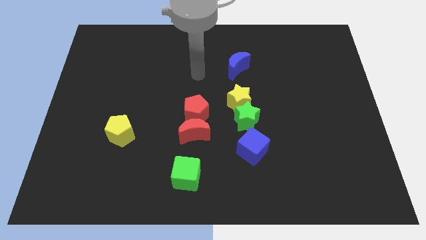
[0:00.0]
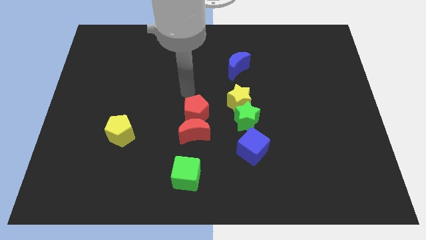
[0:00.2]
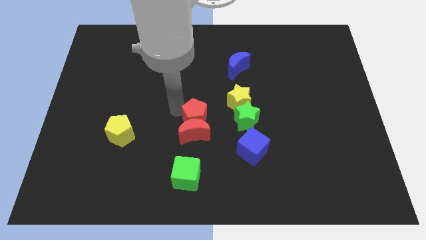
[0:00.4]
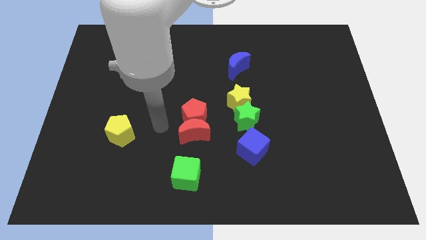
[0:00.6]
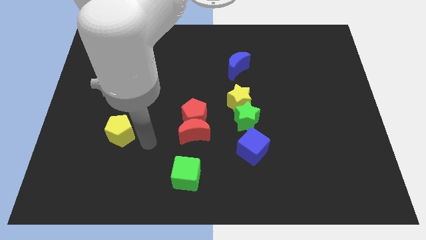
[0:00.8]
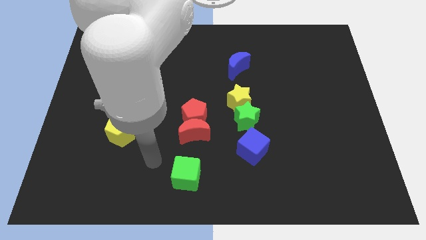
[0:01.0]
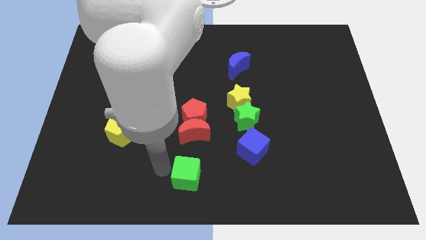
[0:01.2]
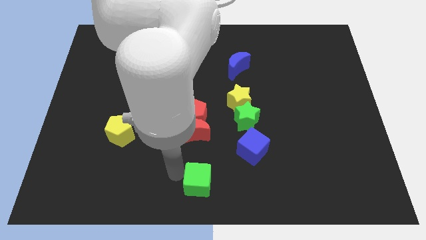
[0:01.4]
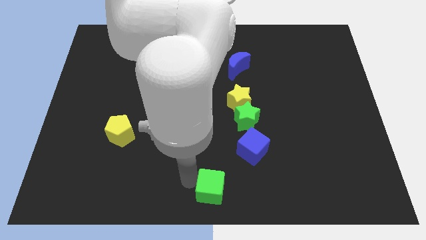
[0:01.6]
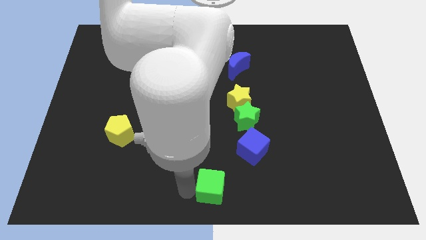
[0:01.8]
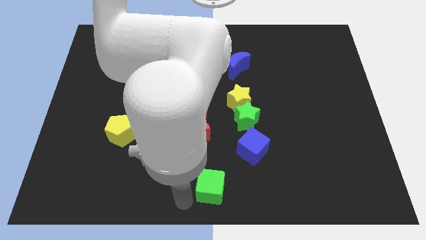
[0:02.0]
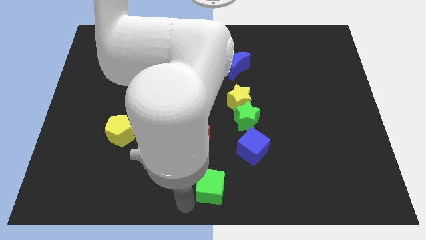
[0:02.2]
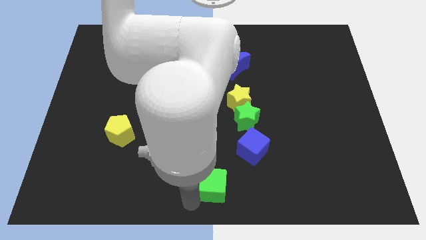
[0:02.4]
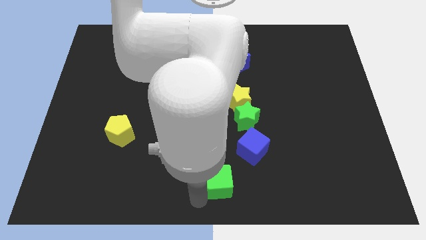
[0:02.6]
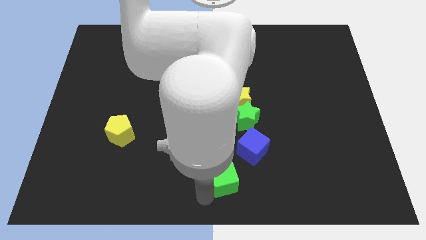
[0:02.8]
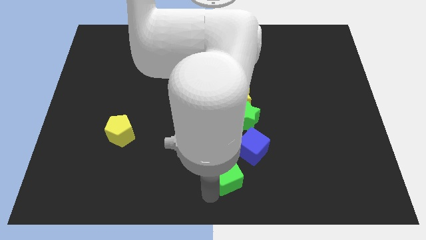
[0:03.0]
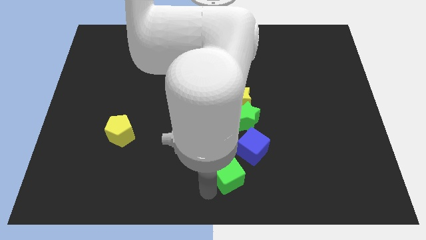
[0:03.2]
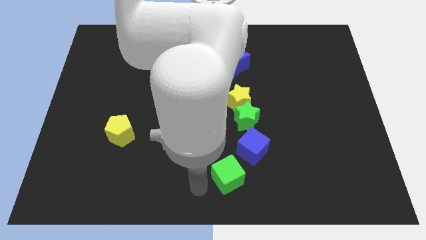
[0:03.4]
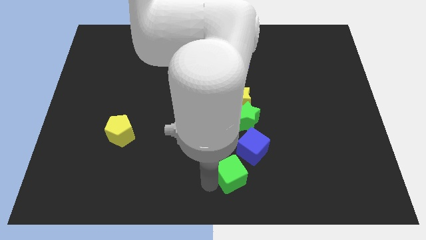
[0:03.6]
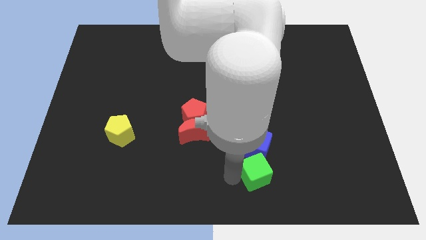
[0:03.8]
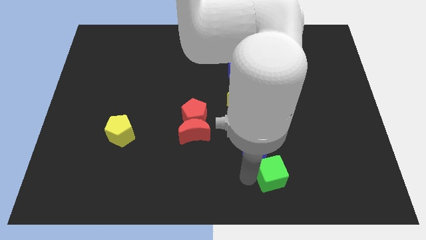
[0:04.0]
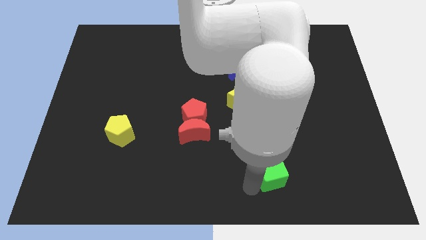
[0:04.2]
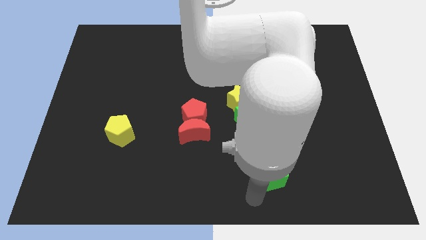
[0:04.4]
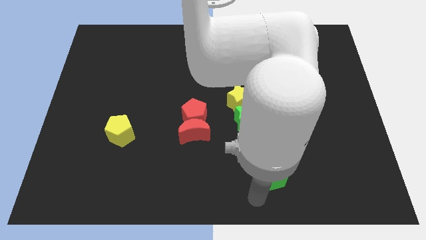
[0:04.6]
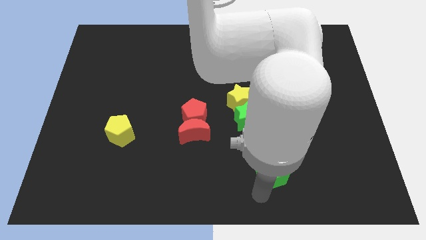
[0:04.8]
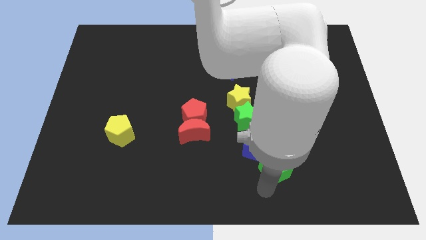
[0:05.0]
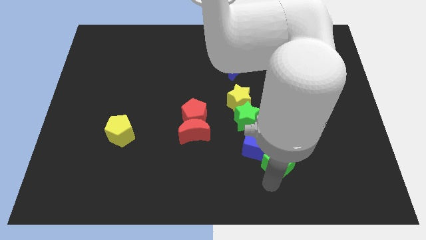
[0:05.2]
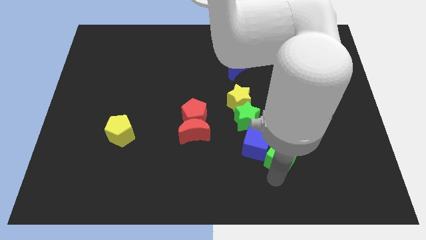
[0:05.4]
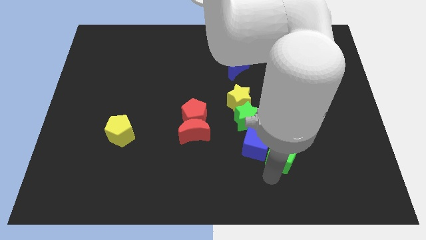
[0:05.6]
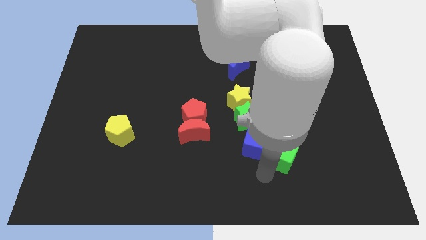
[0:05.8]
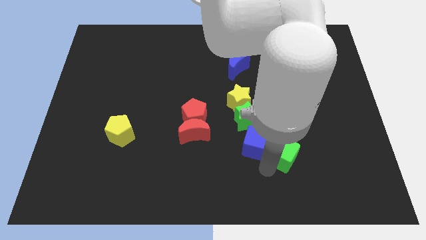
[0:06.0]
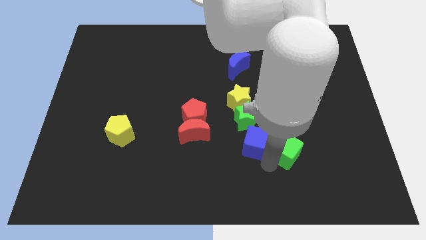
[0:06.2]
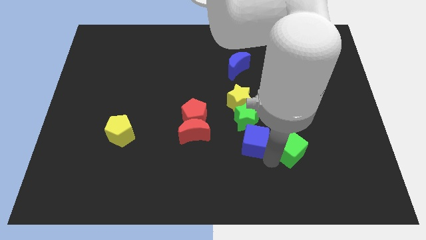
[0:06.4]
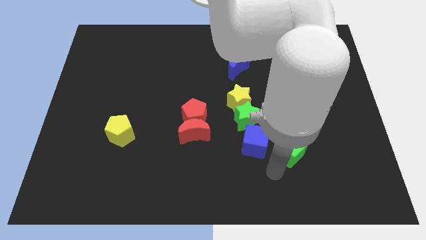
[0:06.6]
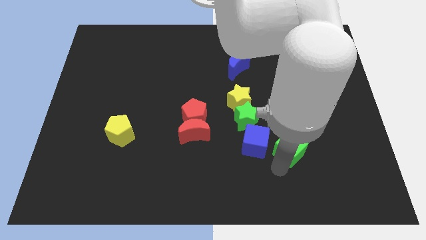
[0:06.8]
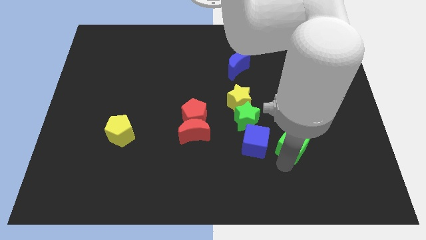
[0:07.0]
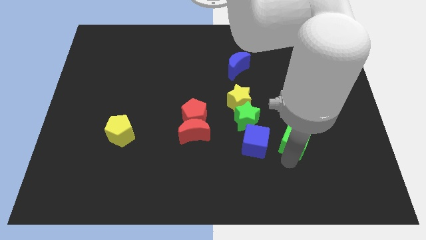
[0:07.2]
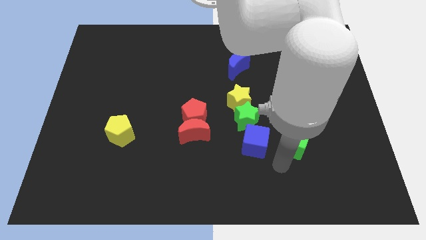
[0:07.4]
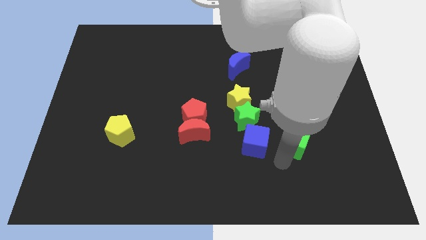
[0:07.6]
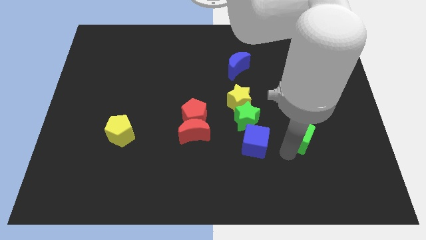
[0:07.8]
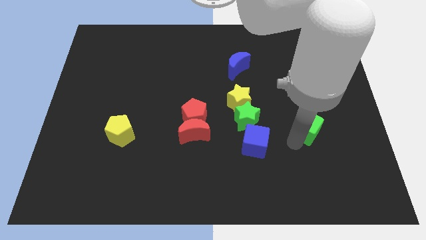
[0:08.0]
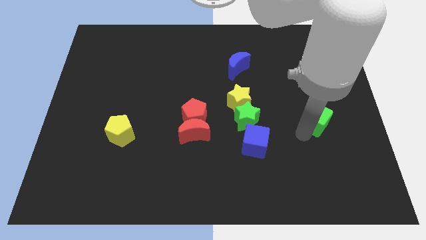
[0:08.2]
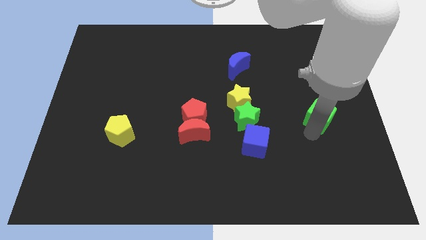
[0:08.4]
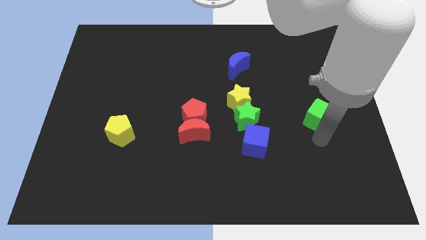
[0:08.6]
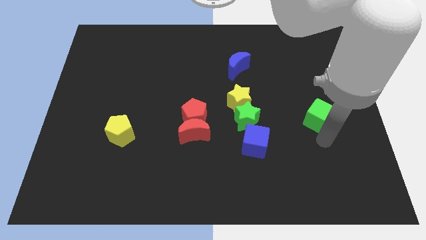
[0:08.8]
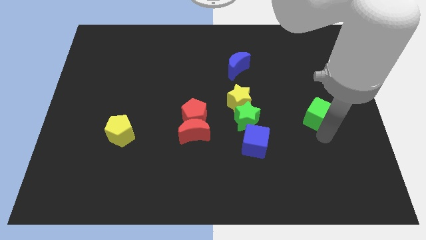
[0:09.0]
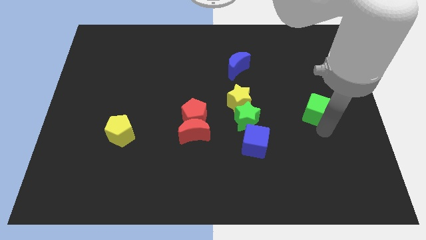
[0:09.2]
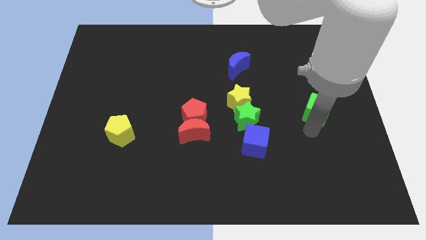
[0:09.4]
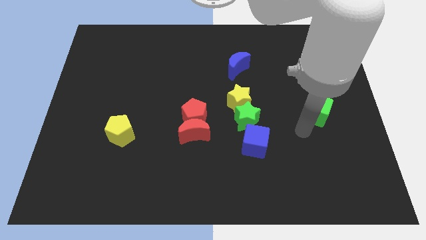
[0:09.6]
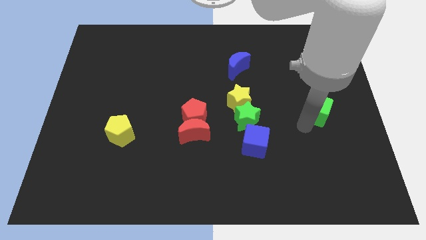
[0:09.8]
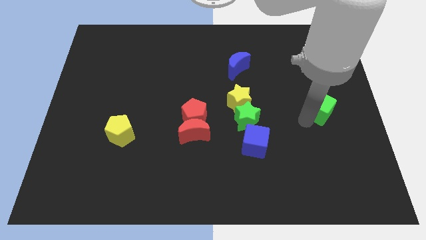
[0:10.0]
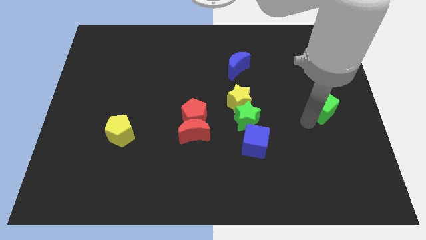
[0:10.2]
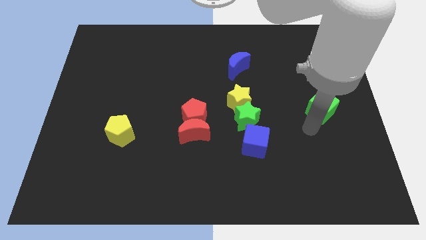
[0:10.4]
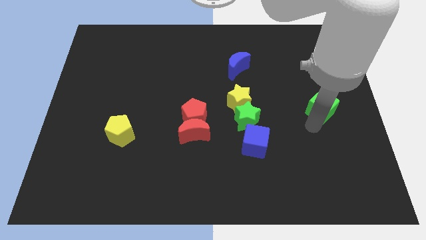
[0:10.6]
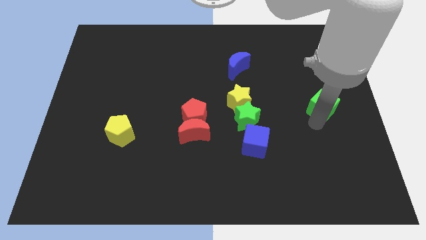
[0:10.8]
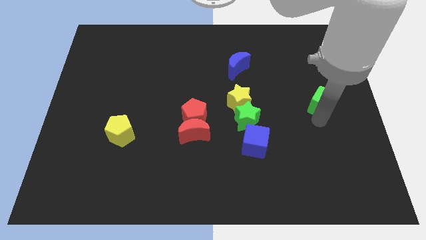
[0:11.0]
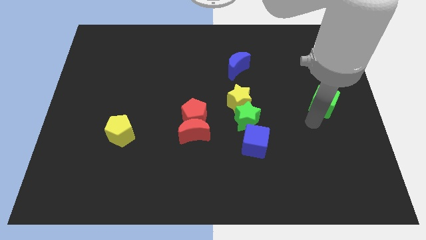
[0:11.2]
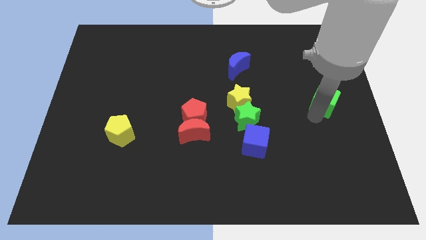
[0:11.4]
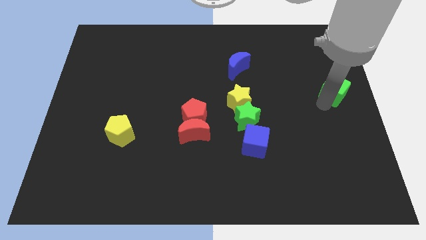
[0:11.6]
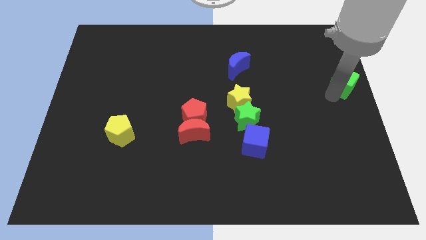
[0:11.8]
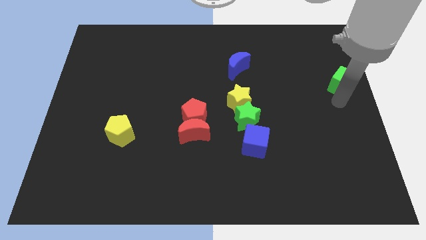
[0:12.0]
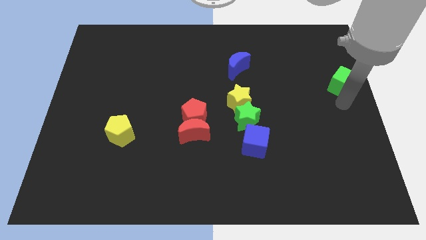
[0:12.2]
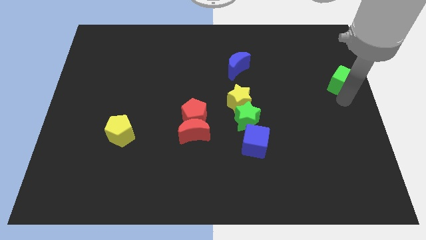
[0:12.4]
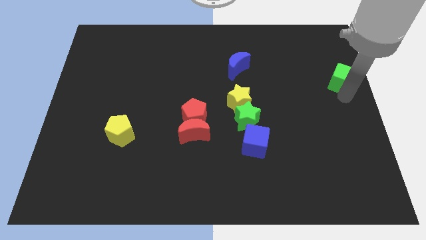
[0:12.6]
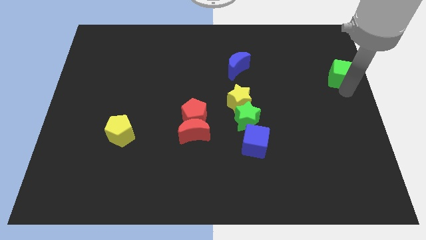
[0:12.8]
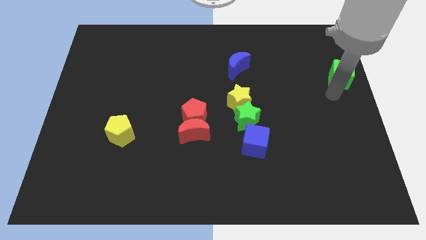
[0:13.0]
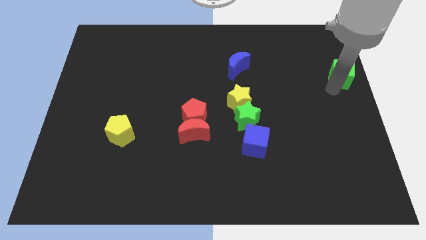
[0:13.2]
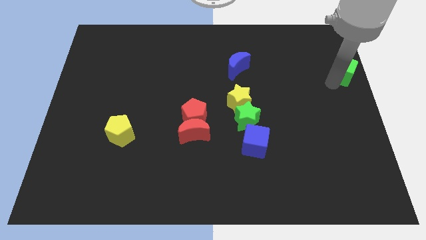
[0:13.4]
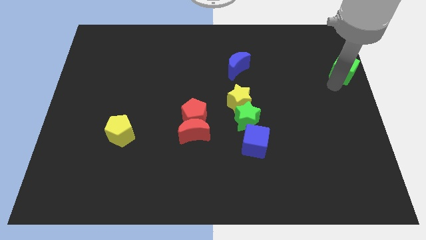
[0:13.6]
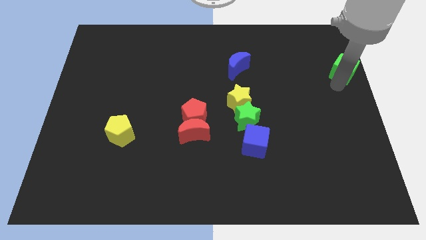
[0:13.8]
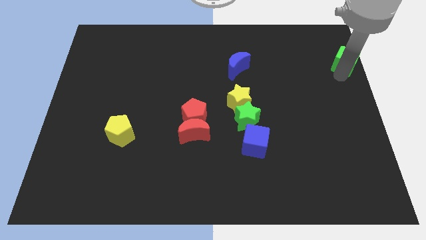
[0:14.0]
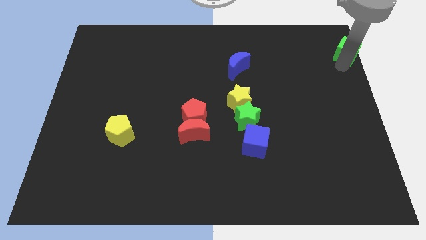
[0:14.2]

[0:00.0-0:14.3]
put the green cube to the top right
